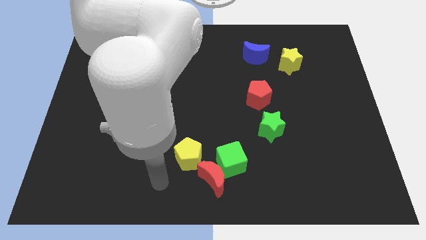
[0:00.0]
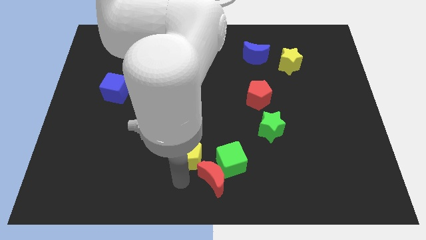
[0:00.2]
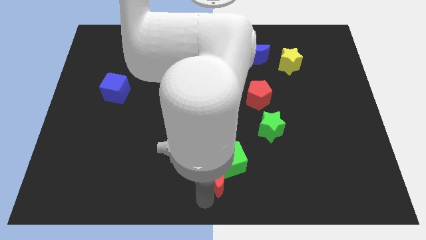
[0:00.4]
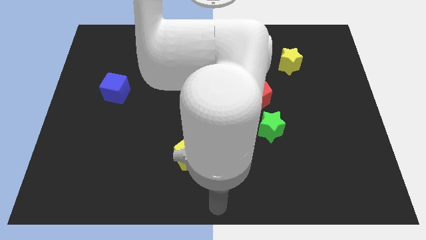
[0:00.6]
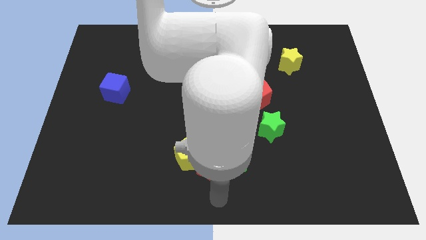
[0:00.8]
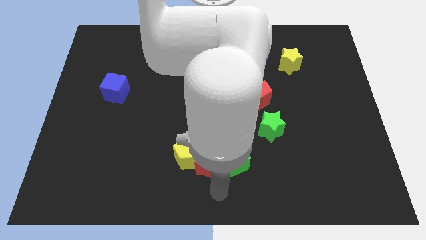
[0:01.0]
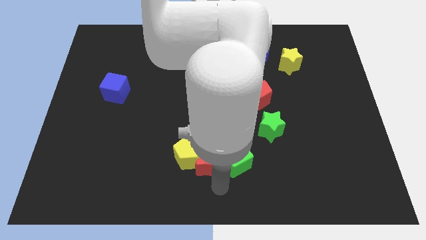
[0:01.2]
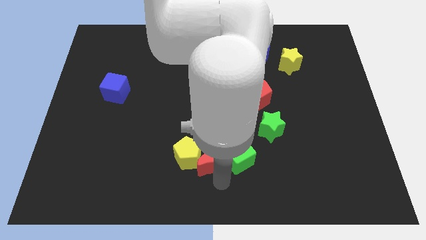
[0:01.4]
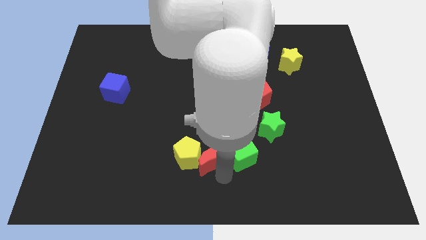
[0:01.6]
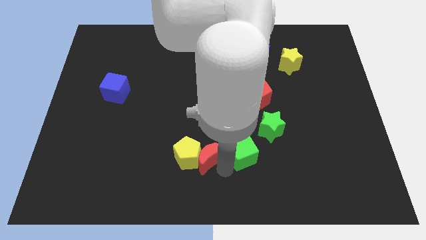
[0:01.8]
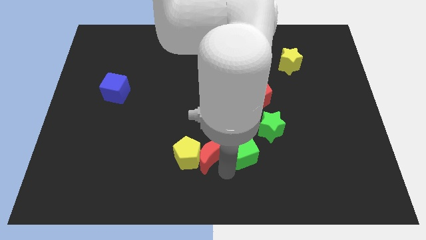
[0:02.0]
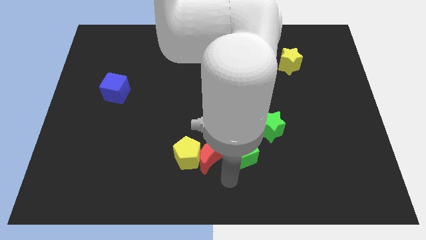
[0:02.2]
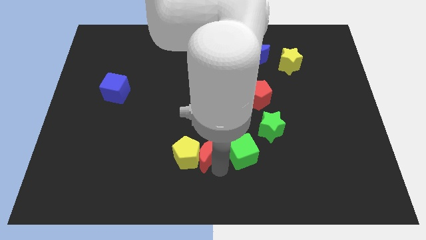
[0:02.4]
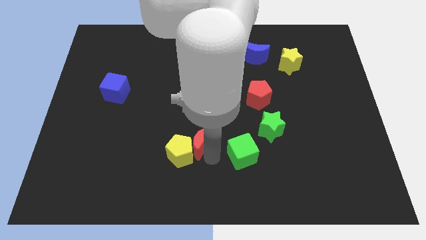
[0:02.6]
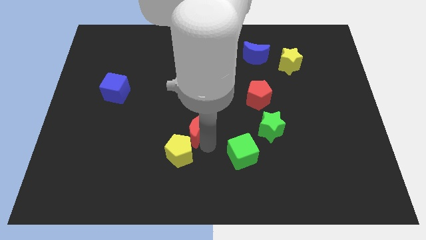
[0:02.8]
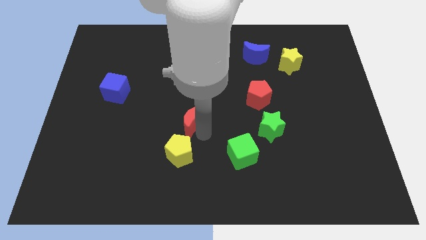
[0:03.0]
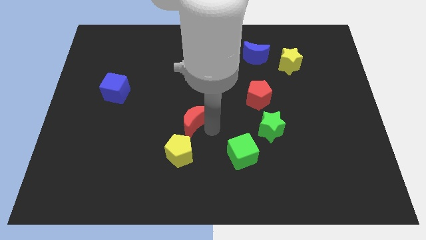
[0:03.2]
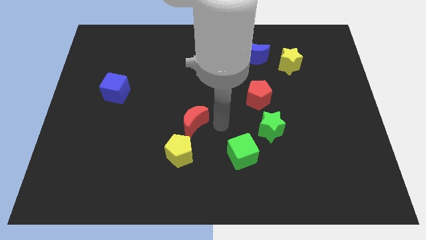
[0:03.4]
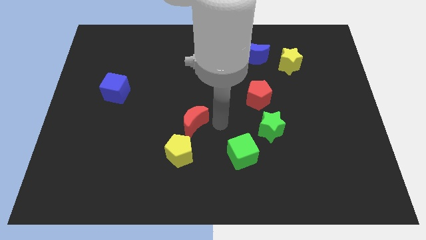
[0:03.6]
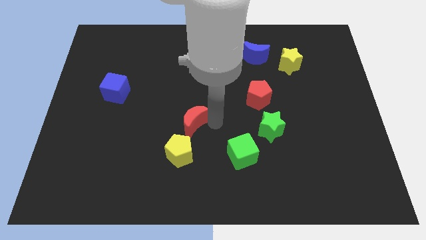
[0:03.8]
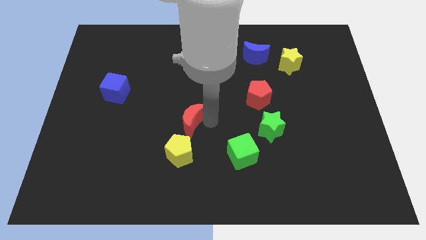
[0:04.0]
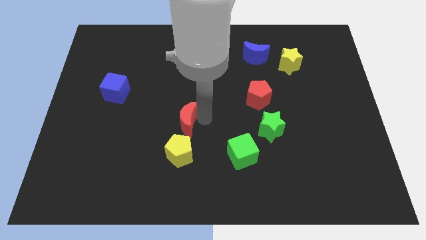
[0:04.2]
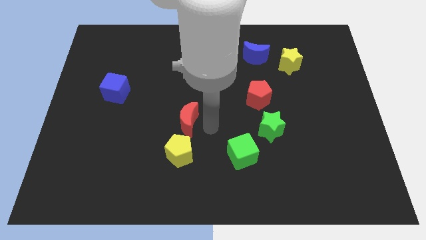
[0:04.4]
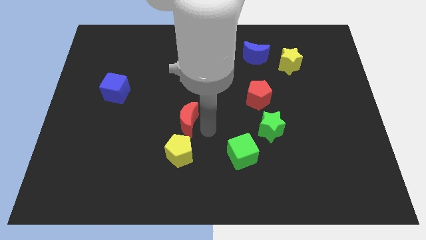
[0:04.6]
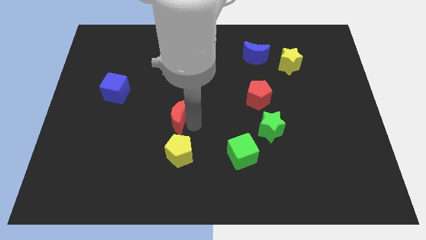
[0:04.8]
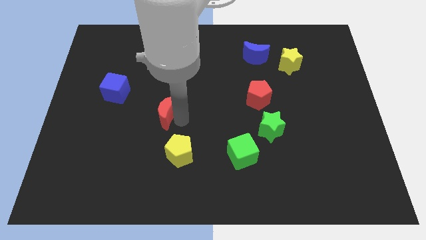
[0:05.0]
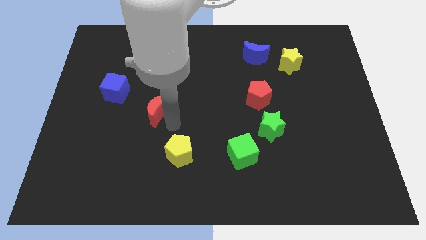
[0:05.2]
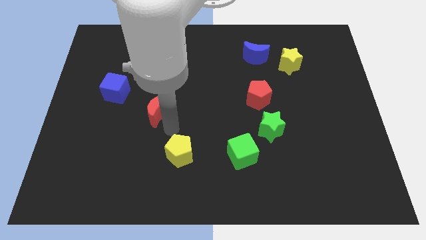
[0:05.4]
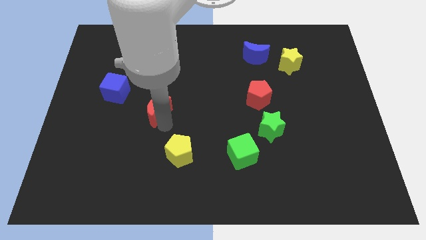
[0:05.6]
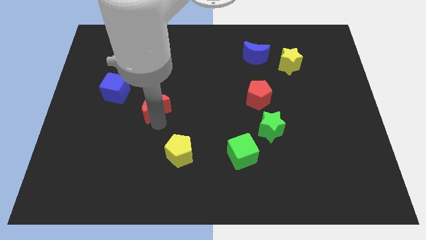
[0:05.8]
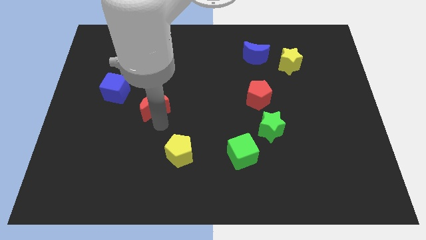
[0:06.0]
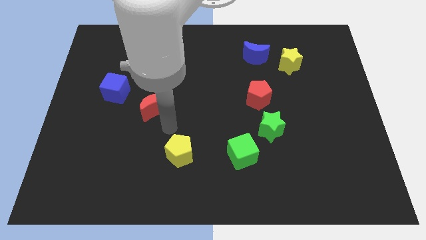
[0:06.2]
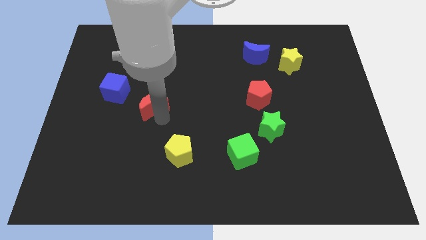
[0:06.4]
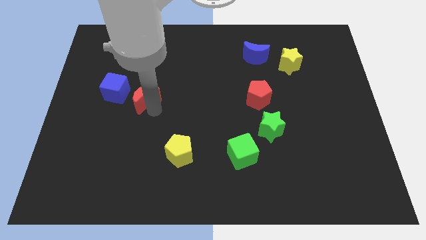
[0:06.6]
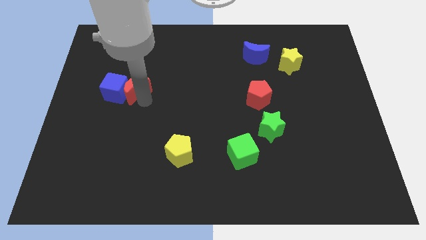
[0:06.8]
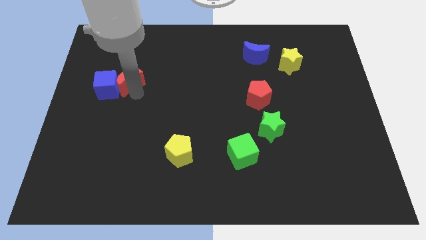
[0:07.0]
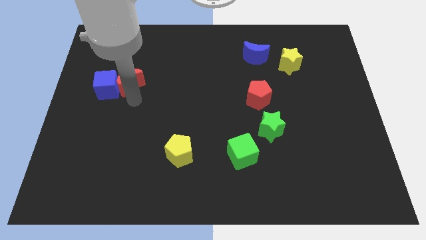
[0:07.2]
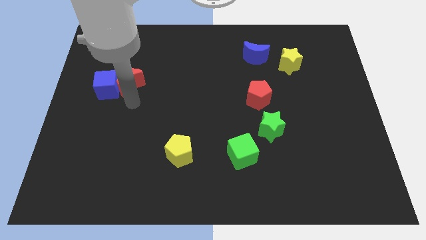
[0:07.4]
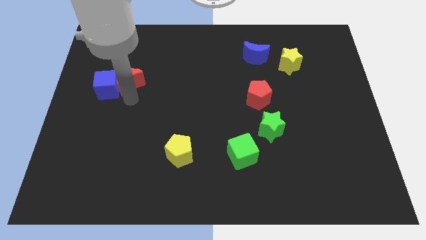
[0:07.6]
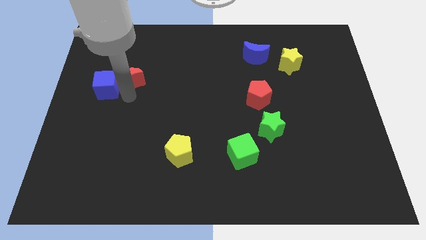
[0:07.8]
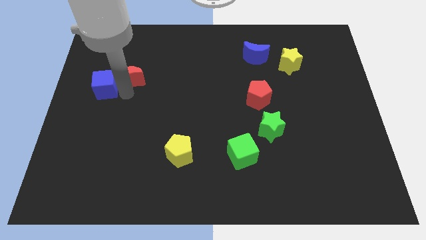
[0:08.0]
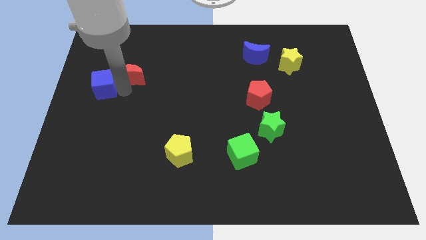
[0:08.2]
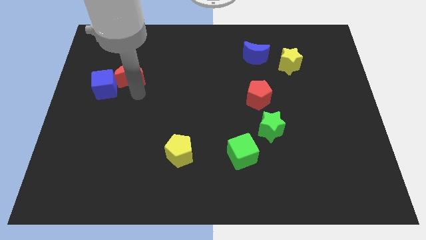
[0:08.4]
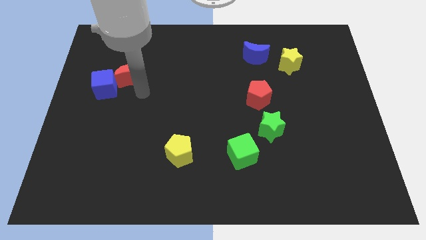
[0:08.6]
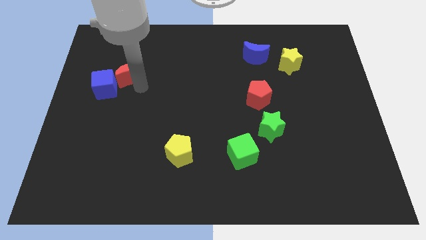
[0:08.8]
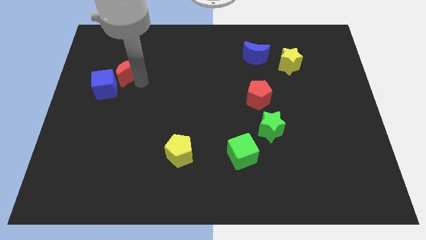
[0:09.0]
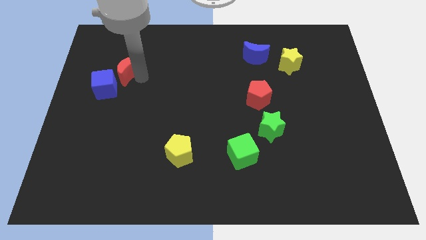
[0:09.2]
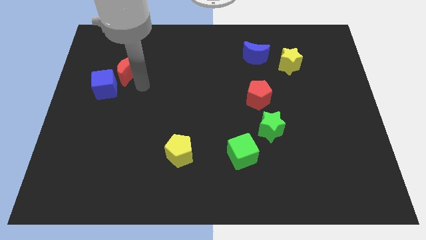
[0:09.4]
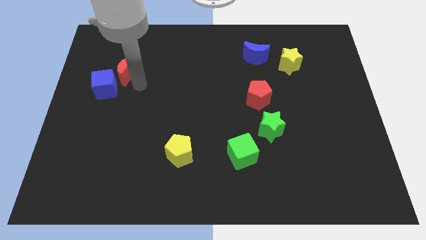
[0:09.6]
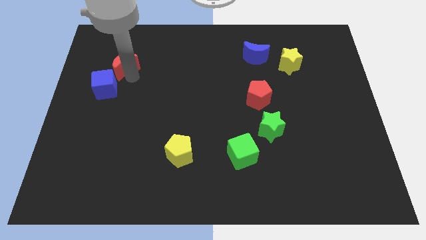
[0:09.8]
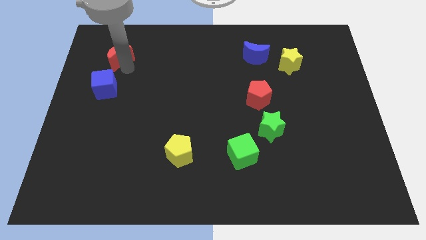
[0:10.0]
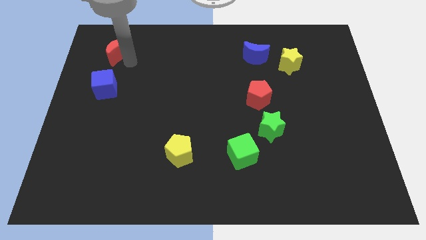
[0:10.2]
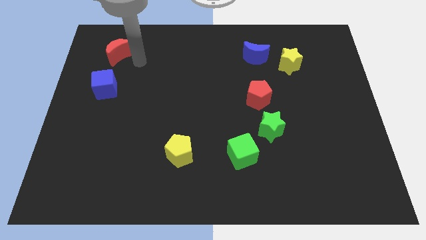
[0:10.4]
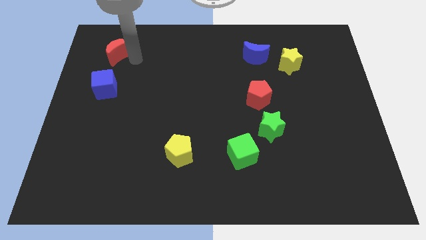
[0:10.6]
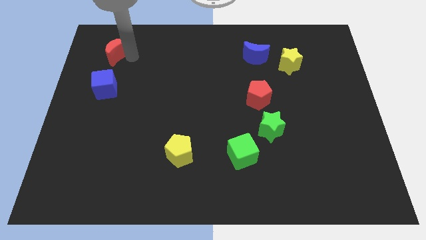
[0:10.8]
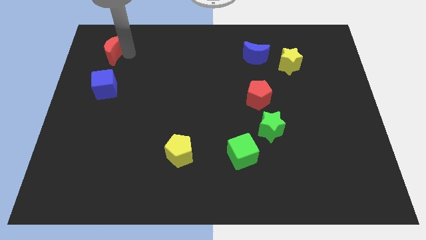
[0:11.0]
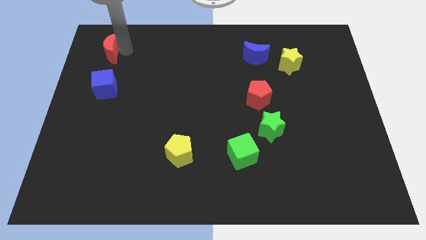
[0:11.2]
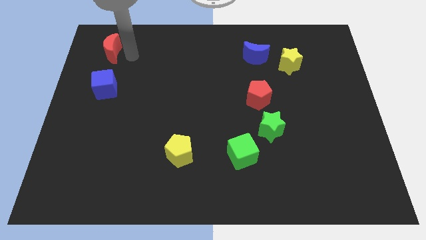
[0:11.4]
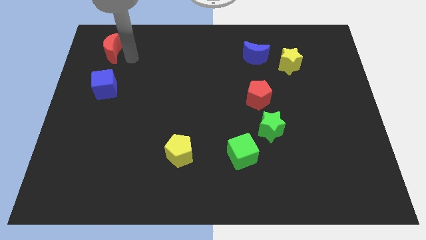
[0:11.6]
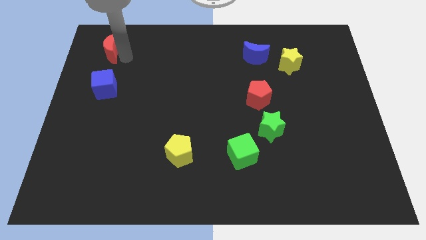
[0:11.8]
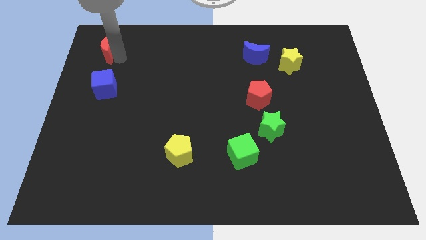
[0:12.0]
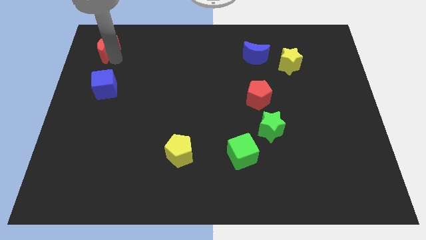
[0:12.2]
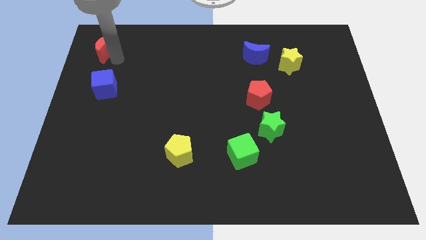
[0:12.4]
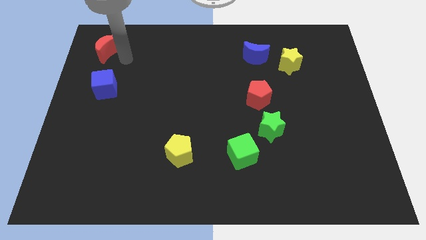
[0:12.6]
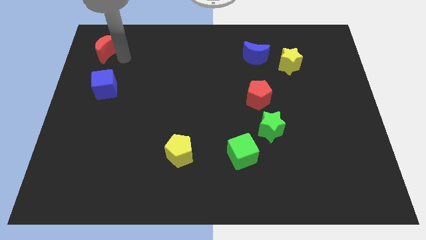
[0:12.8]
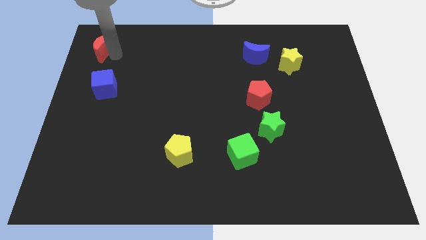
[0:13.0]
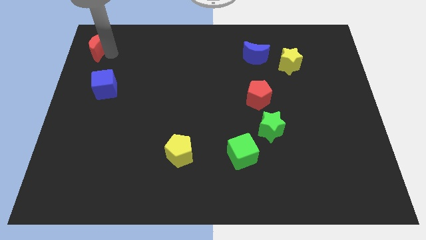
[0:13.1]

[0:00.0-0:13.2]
put the red moon to the top left corner
